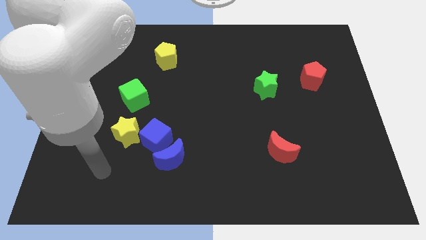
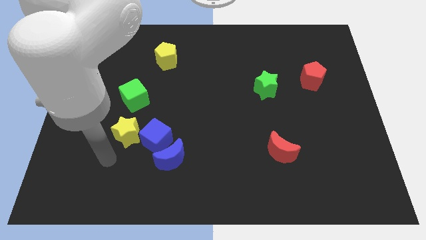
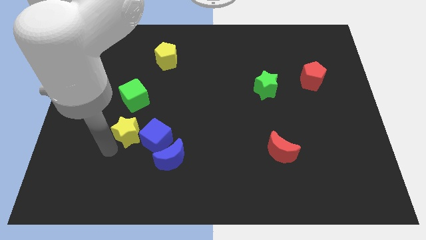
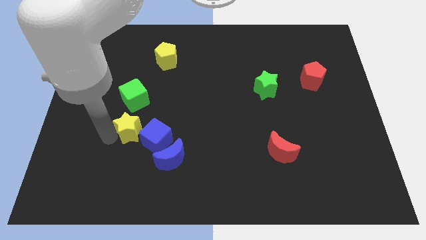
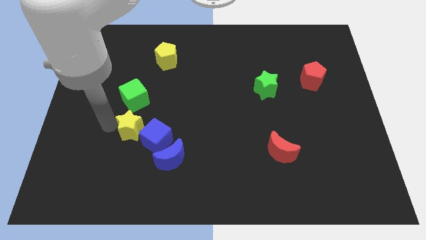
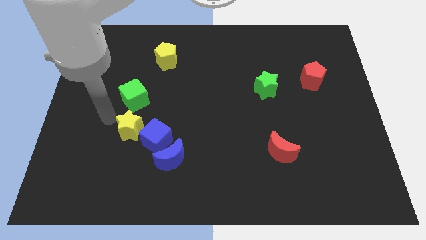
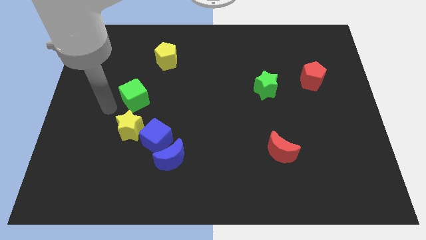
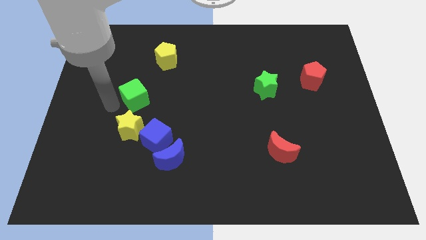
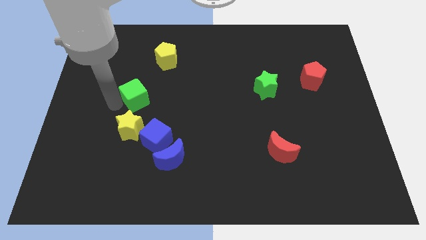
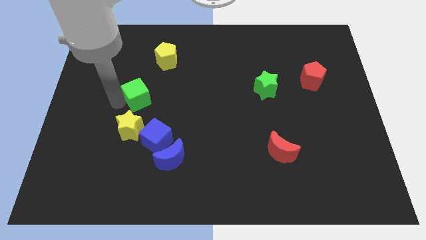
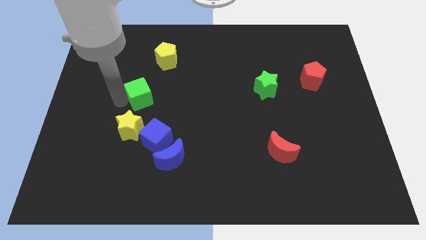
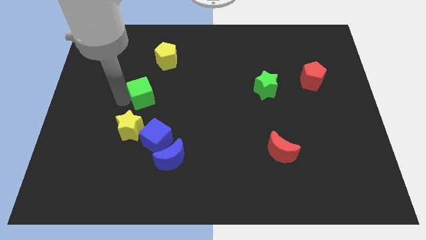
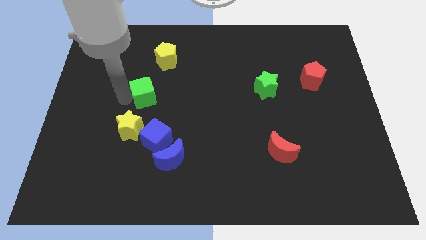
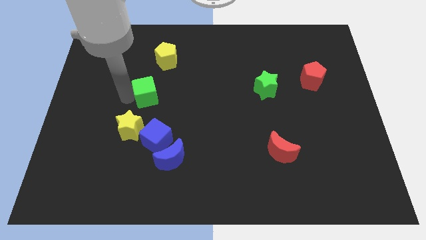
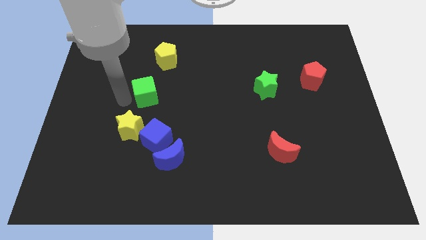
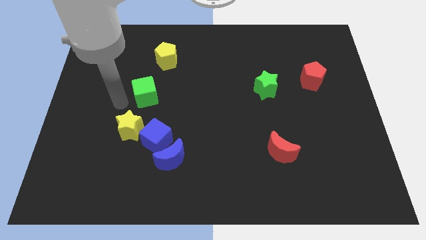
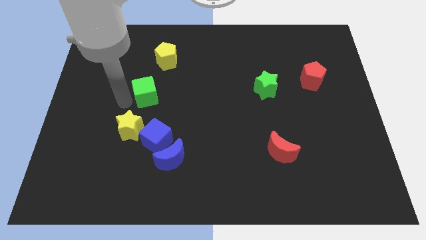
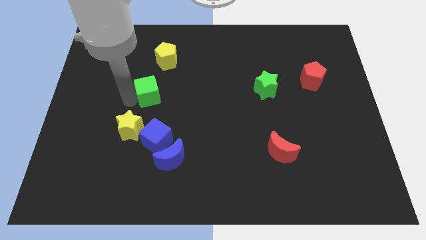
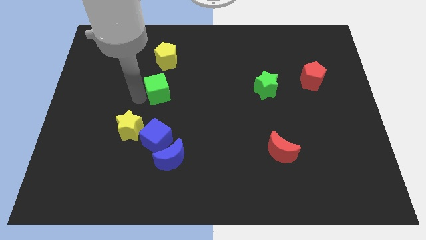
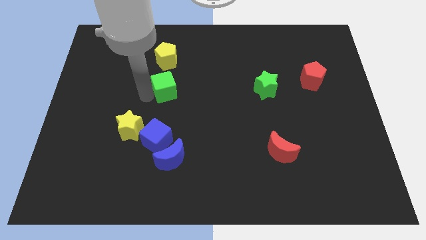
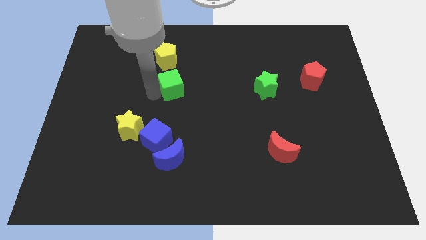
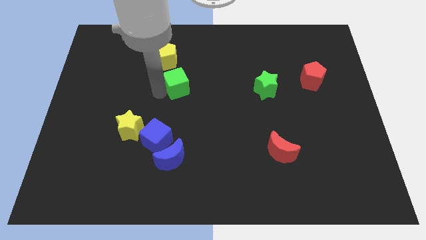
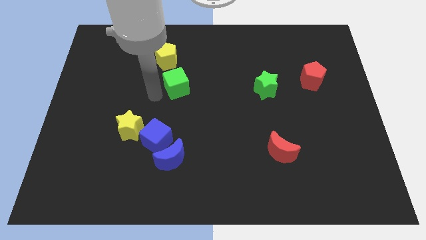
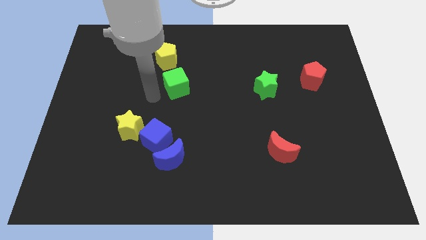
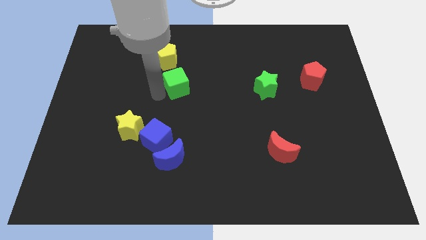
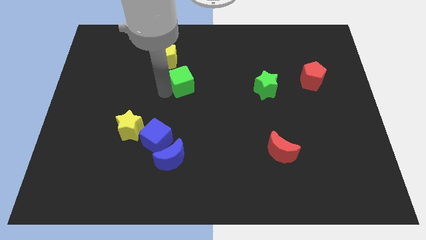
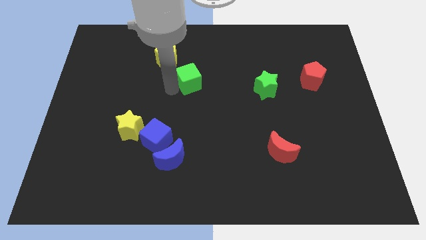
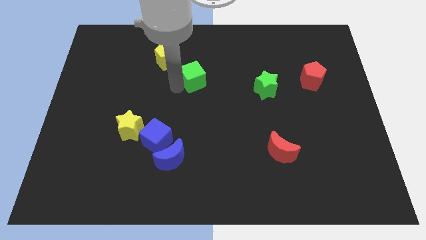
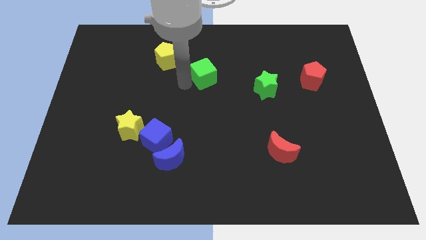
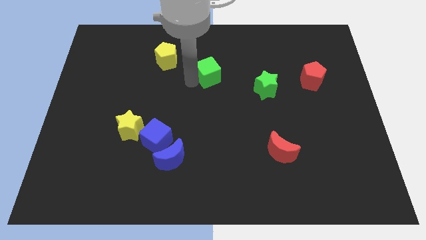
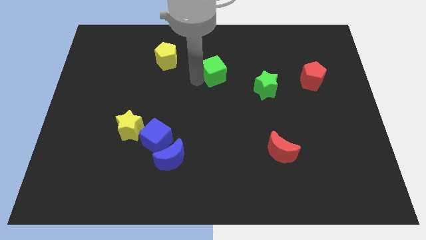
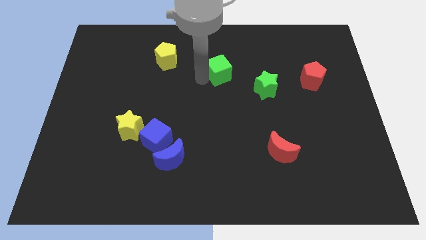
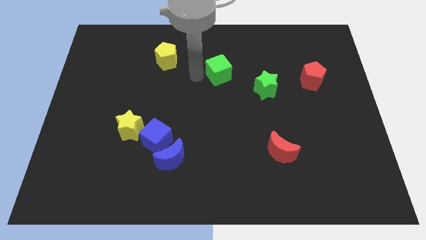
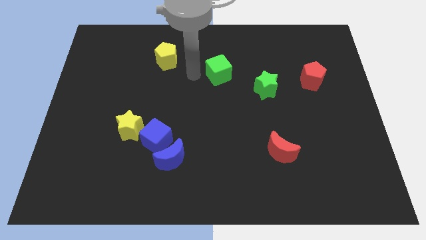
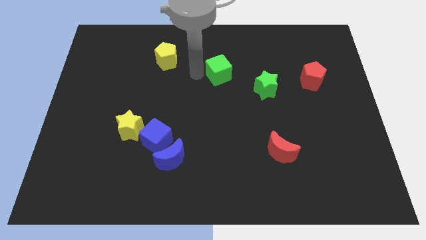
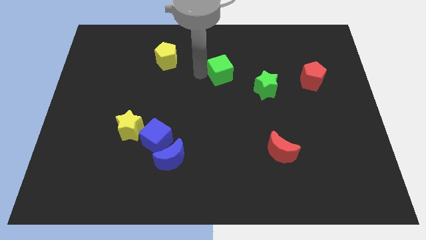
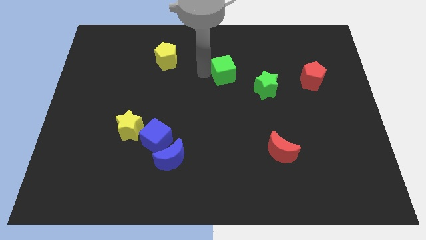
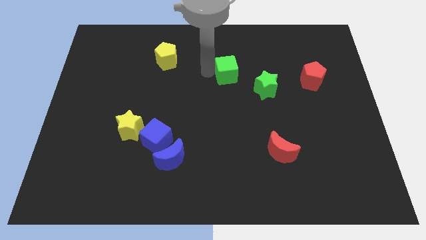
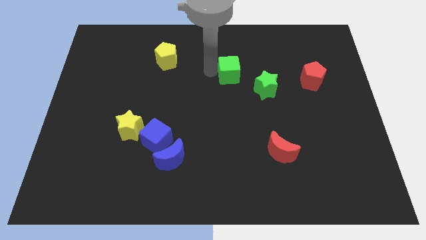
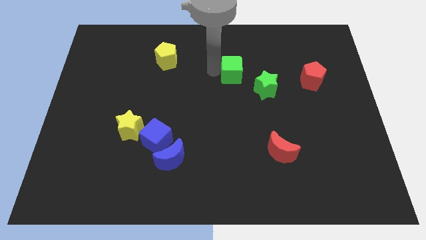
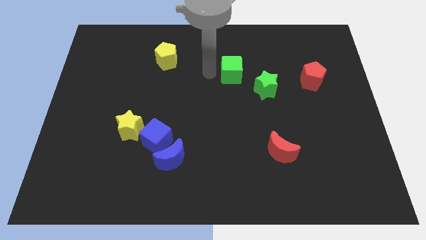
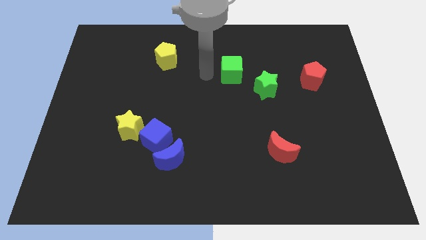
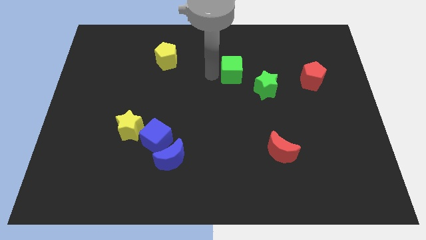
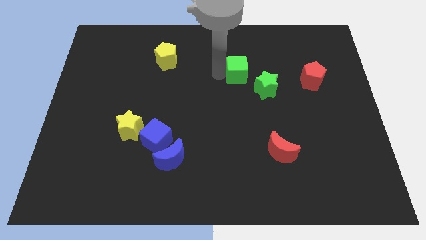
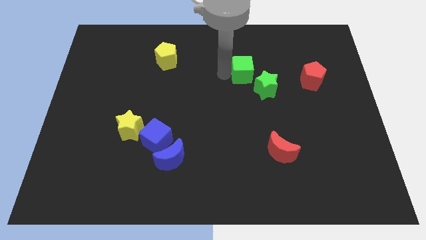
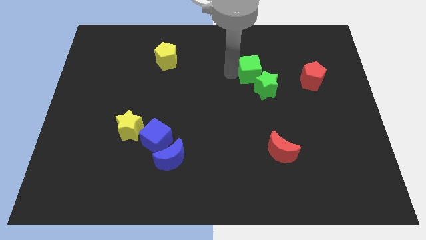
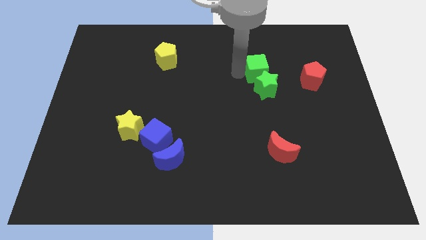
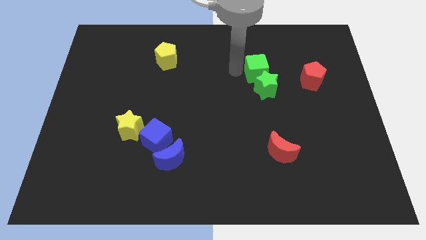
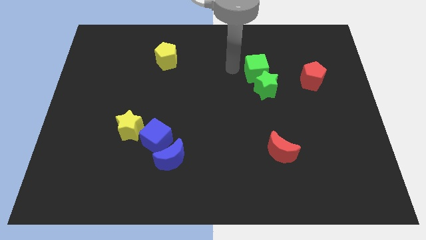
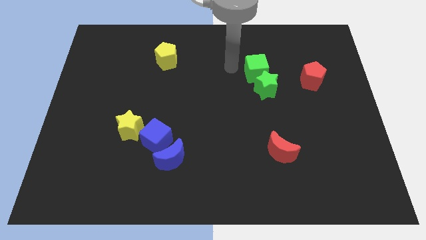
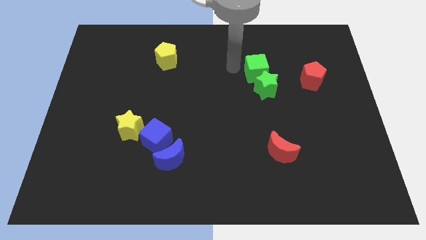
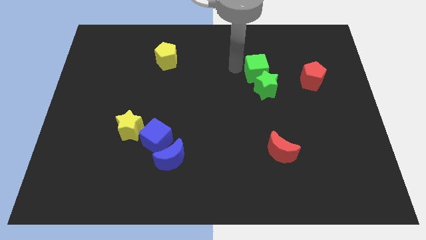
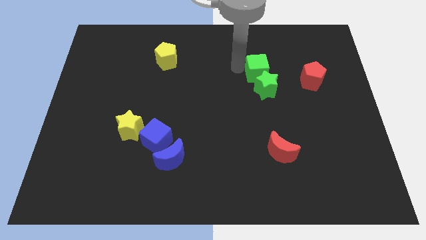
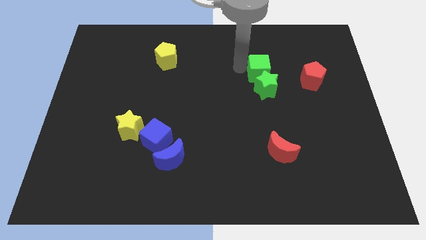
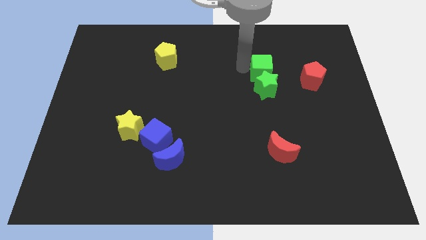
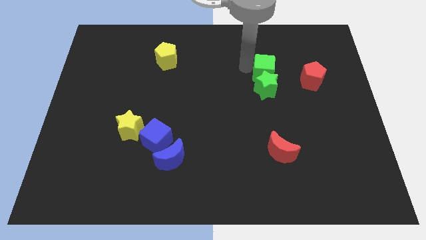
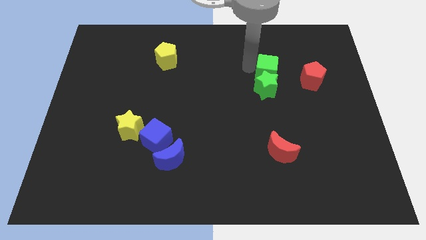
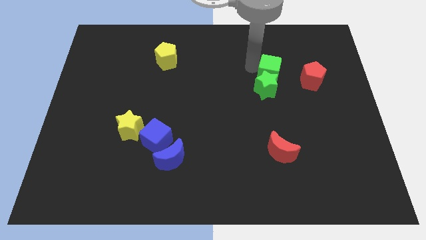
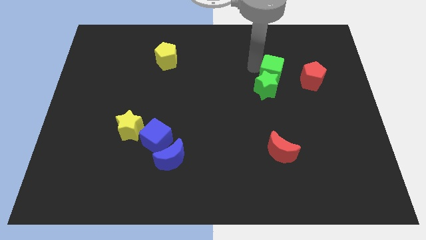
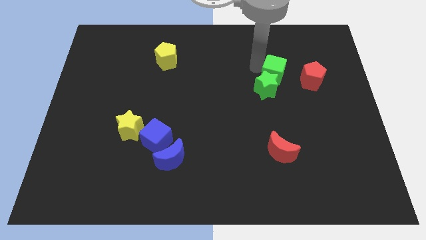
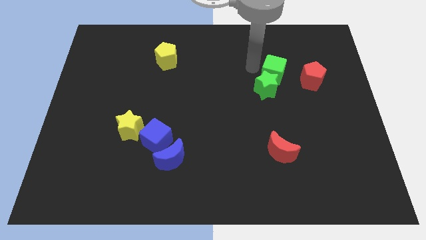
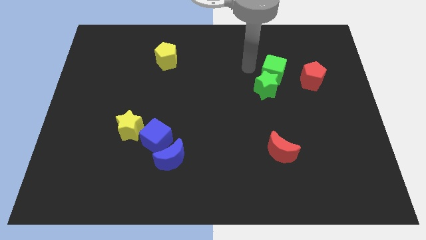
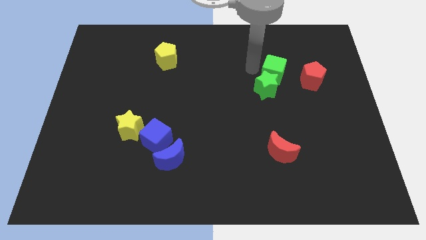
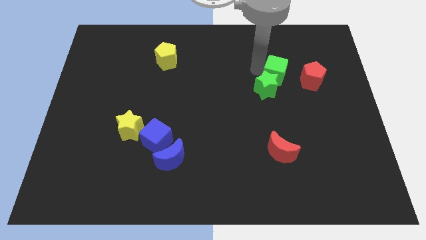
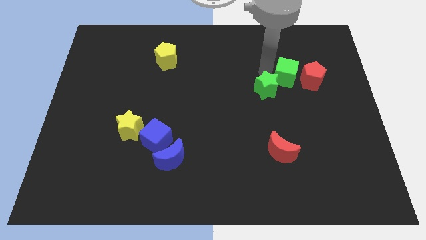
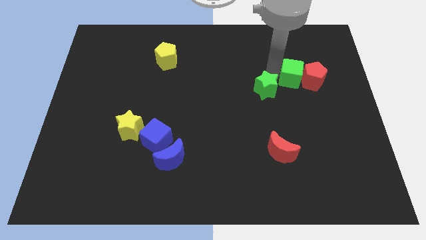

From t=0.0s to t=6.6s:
slide the green cube next to the red pentagon

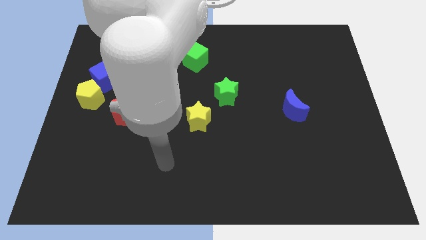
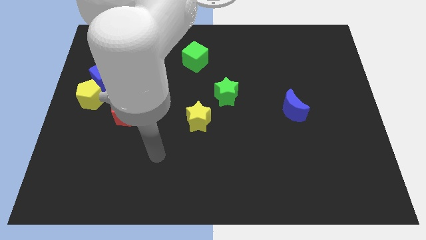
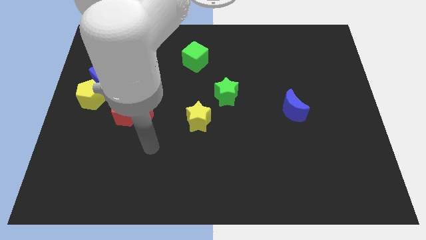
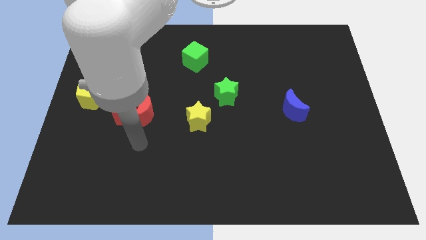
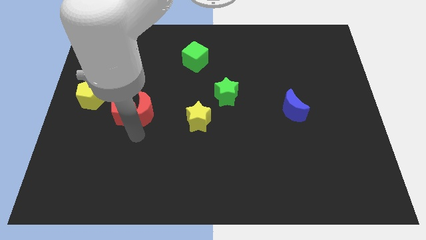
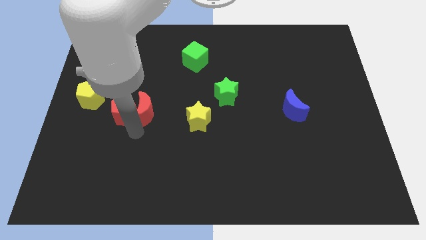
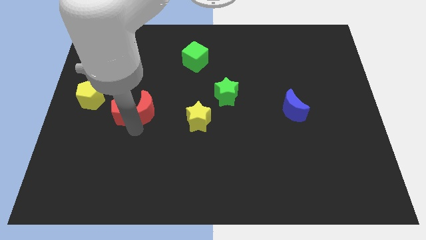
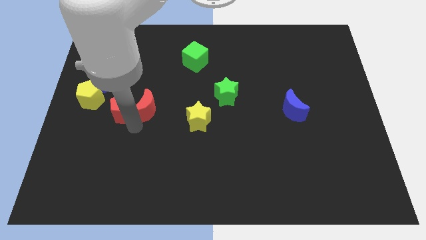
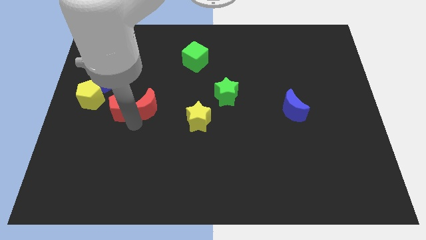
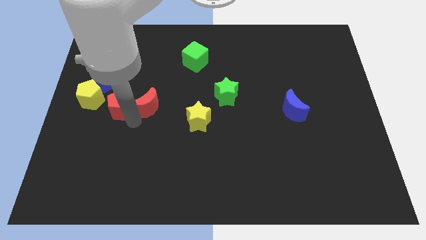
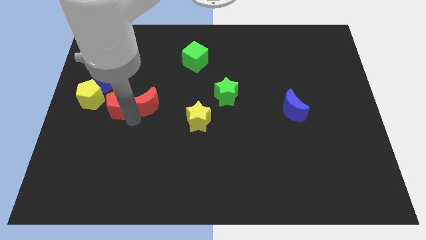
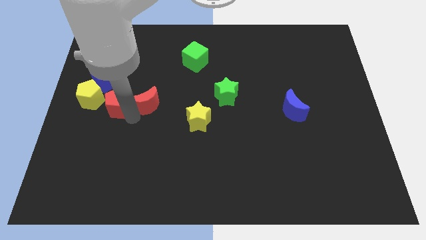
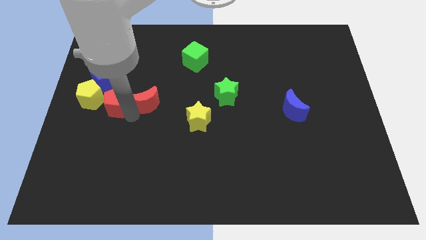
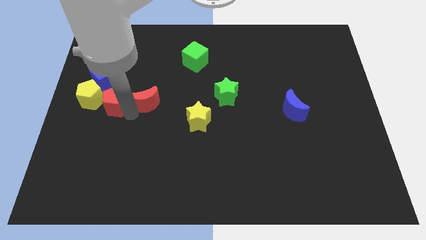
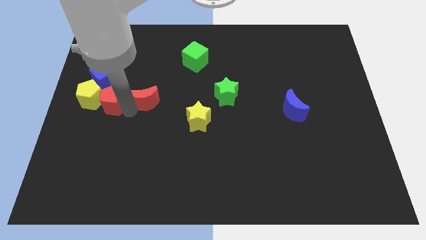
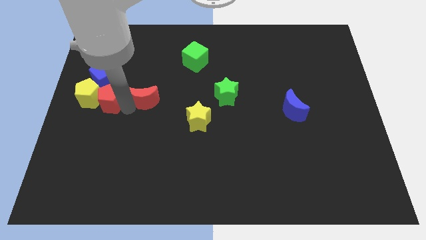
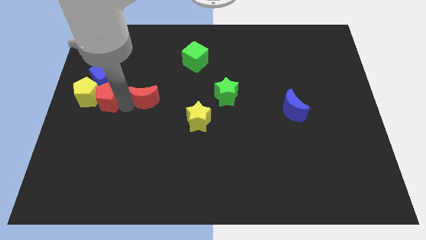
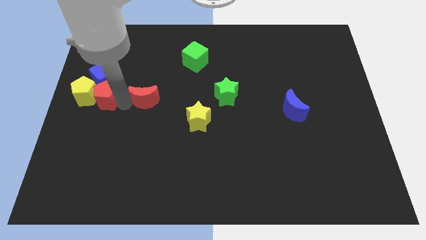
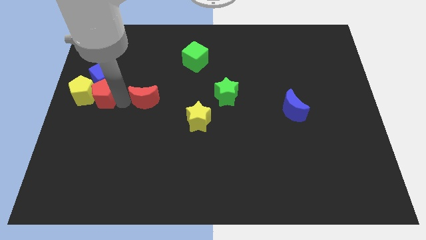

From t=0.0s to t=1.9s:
put the red pentagon close to the blue cube
